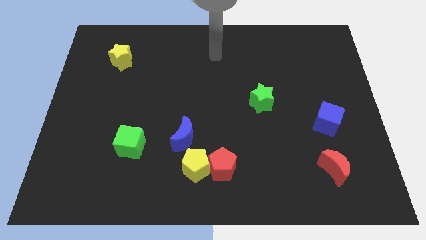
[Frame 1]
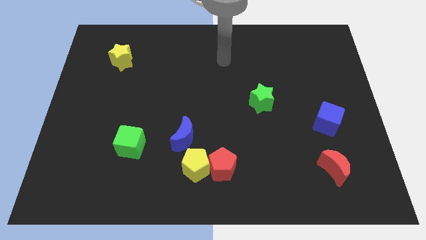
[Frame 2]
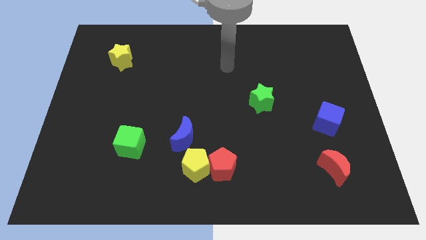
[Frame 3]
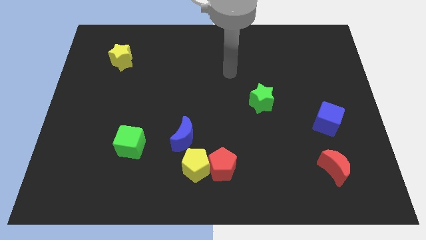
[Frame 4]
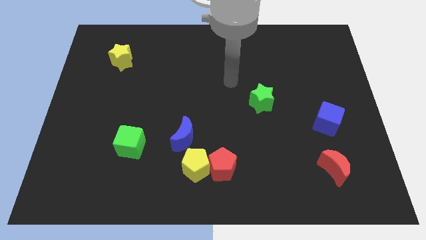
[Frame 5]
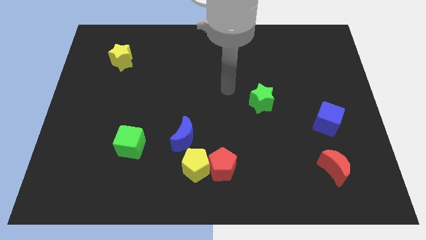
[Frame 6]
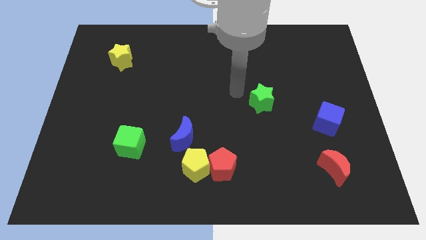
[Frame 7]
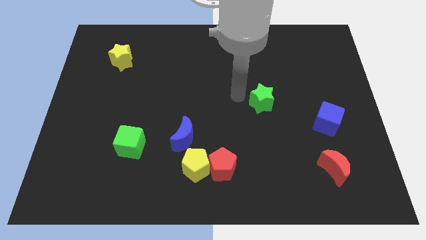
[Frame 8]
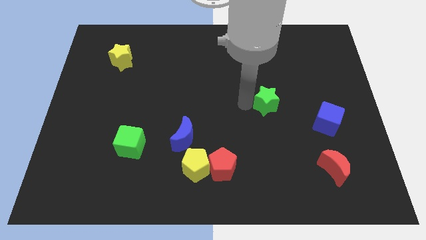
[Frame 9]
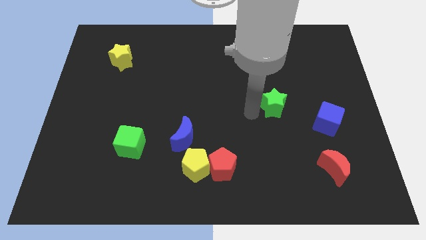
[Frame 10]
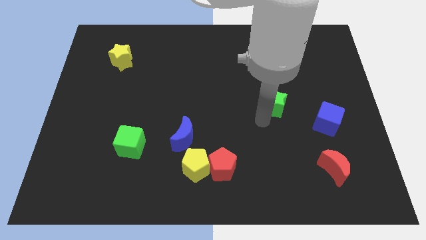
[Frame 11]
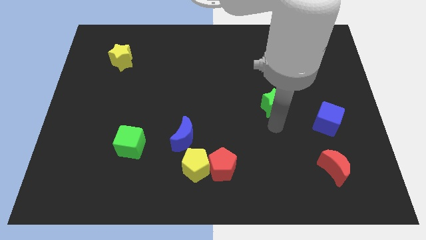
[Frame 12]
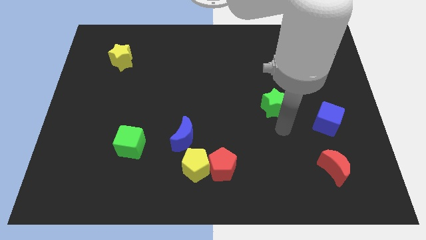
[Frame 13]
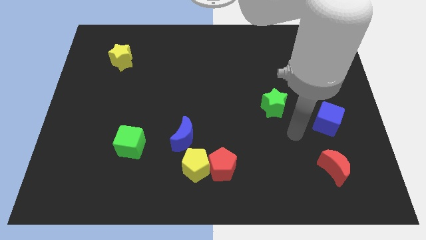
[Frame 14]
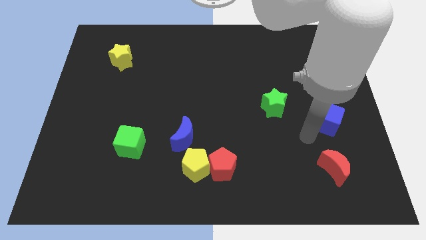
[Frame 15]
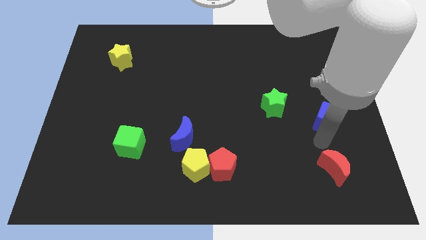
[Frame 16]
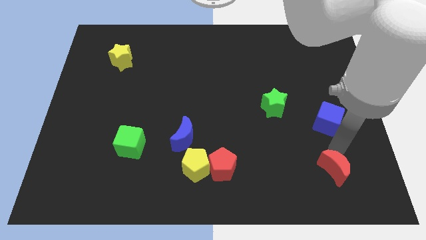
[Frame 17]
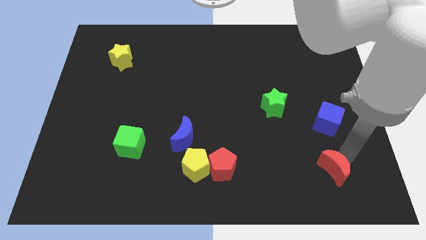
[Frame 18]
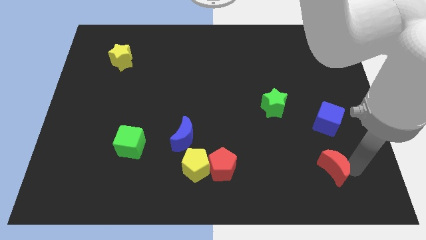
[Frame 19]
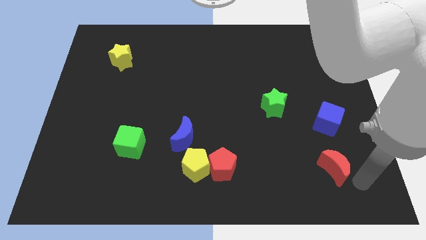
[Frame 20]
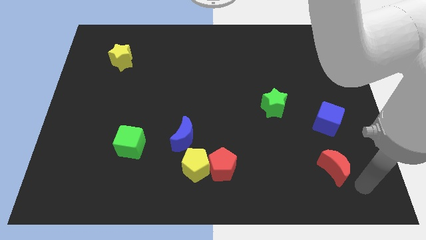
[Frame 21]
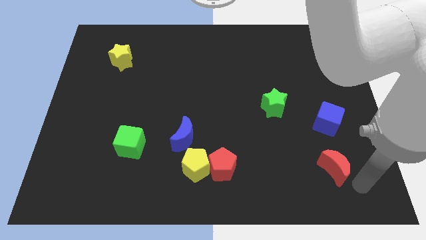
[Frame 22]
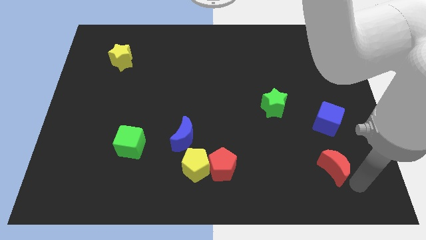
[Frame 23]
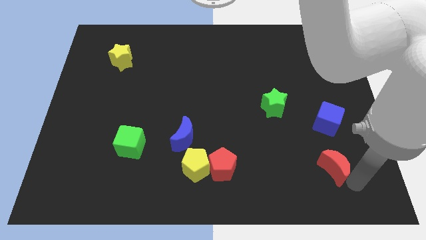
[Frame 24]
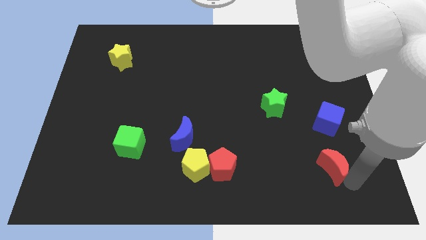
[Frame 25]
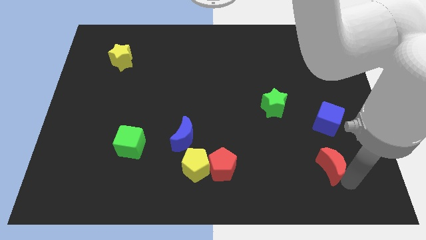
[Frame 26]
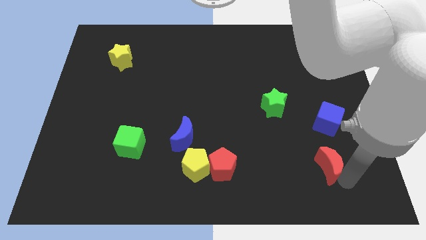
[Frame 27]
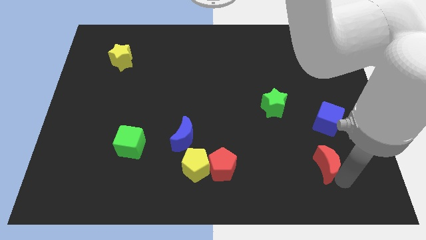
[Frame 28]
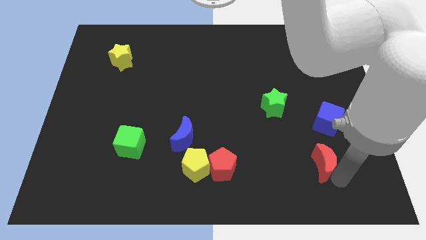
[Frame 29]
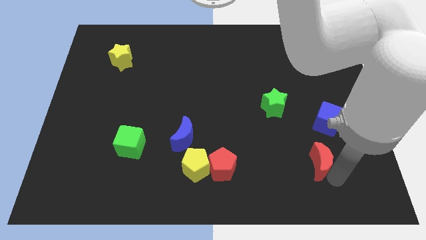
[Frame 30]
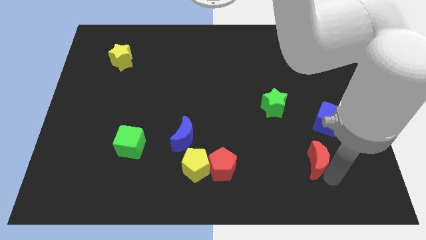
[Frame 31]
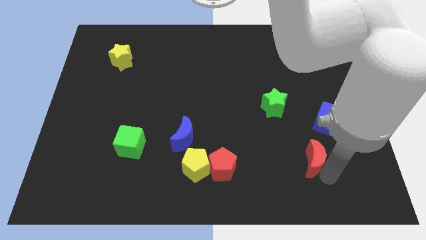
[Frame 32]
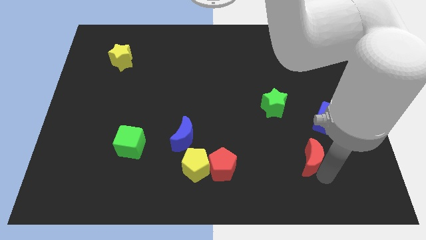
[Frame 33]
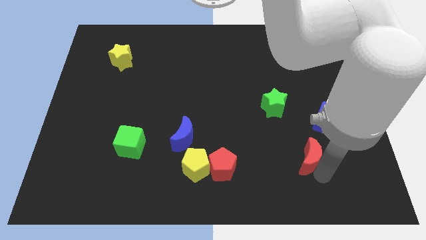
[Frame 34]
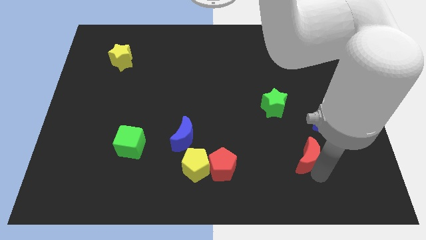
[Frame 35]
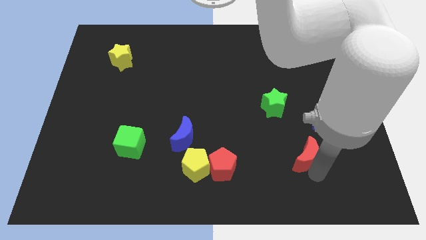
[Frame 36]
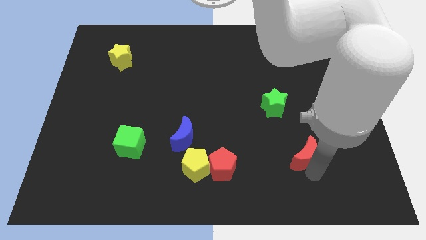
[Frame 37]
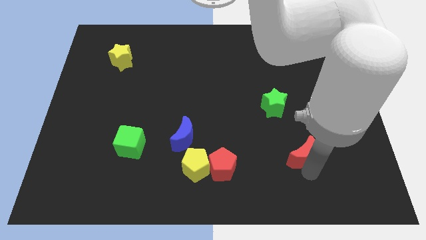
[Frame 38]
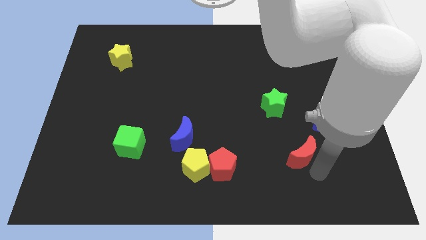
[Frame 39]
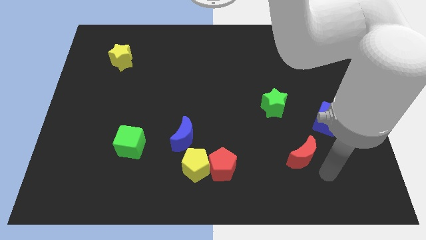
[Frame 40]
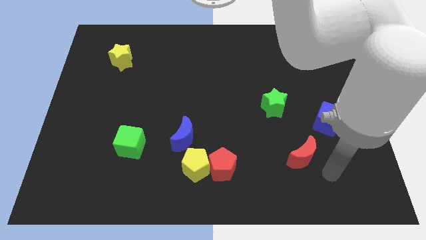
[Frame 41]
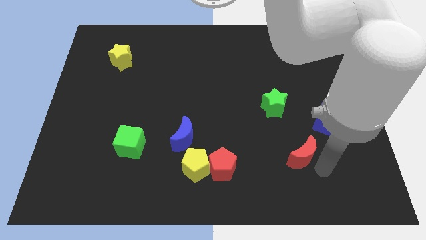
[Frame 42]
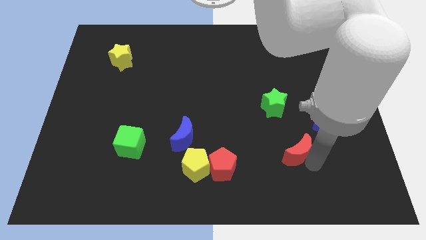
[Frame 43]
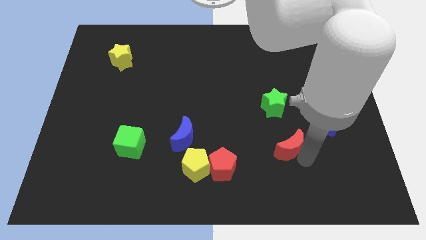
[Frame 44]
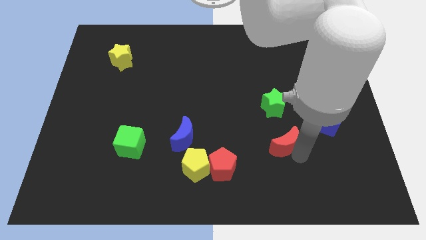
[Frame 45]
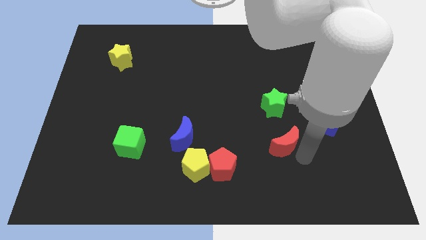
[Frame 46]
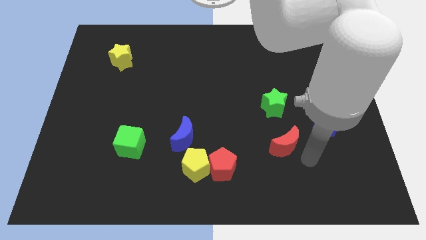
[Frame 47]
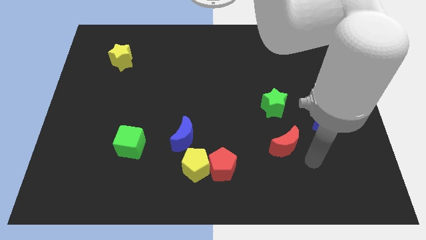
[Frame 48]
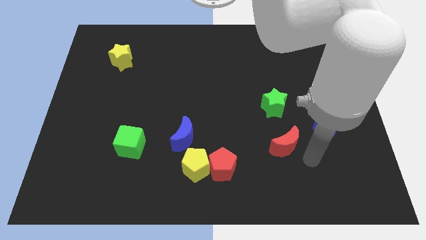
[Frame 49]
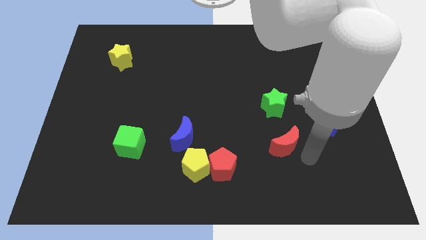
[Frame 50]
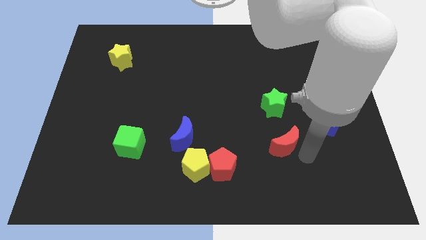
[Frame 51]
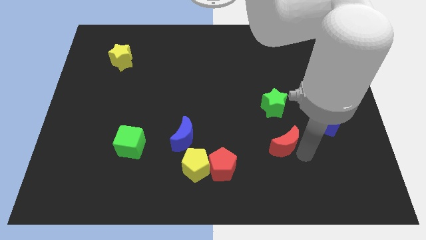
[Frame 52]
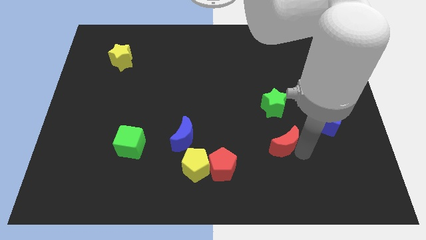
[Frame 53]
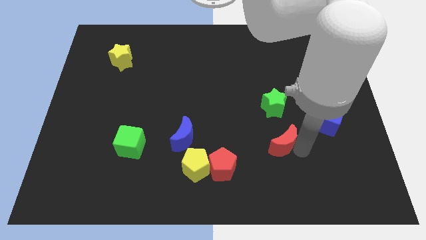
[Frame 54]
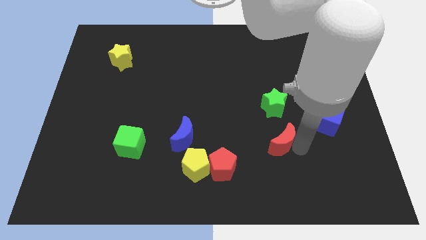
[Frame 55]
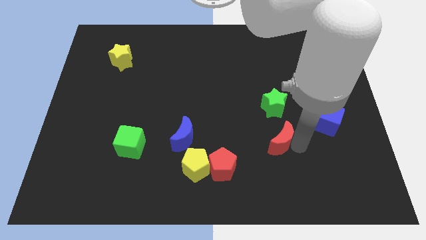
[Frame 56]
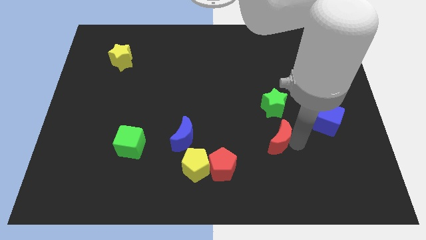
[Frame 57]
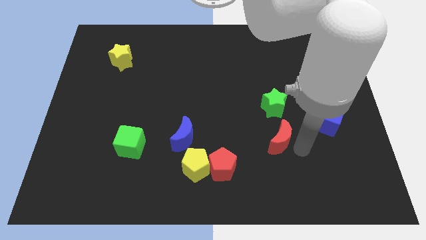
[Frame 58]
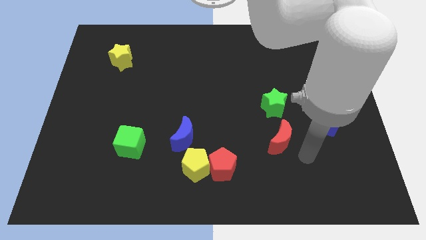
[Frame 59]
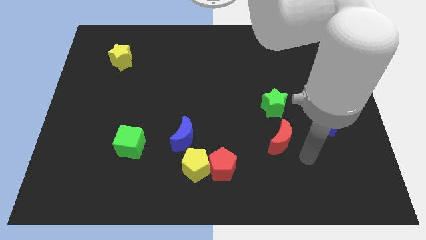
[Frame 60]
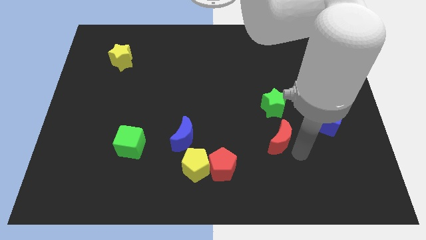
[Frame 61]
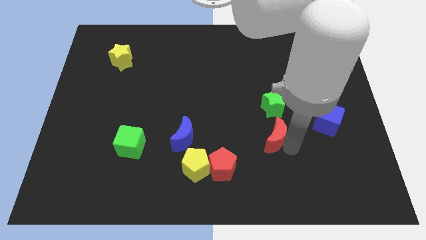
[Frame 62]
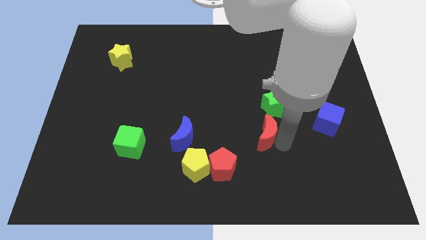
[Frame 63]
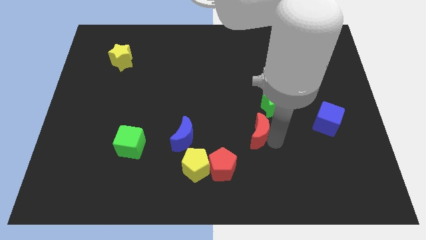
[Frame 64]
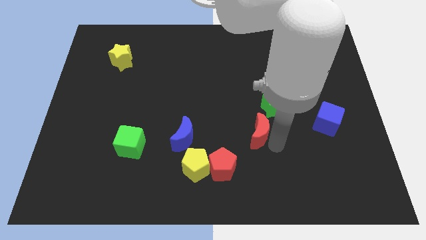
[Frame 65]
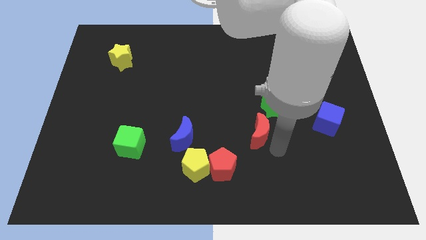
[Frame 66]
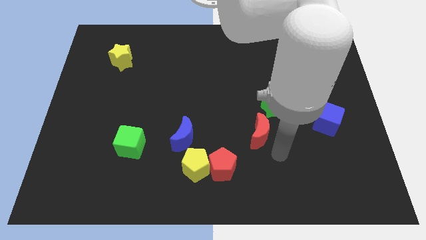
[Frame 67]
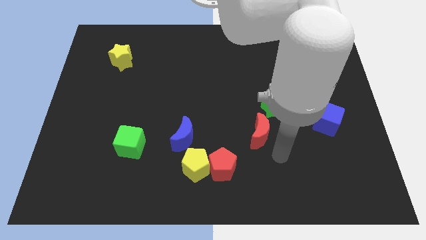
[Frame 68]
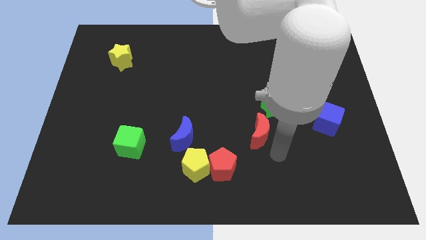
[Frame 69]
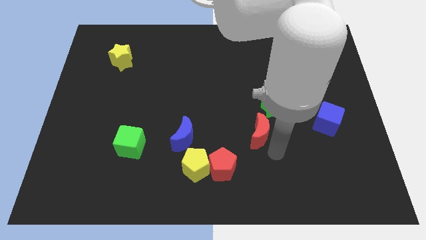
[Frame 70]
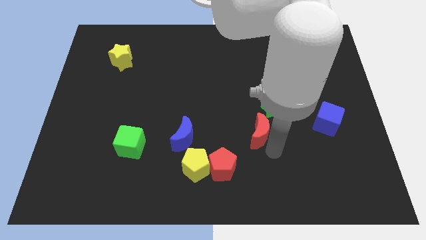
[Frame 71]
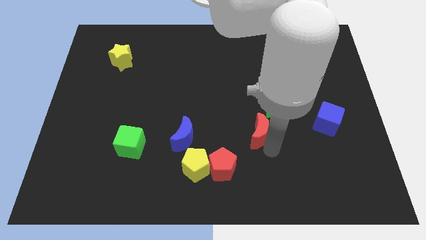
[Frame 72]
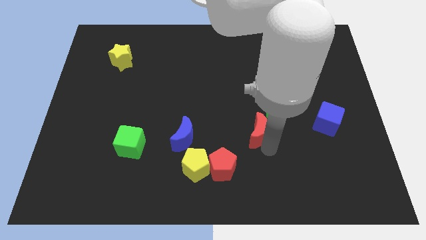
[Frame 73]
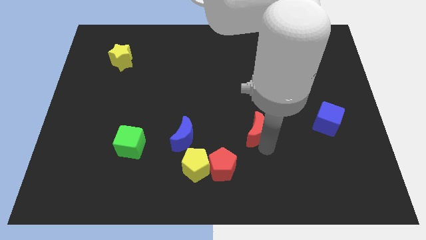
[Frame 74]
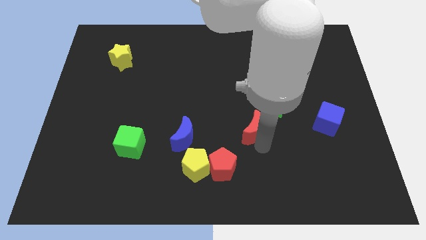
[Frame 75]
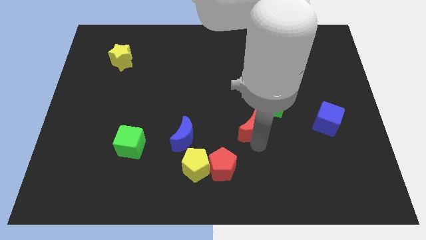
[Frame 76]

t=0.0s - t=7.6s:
push the red moon to the center of the board
